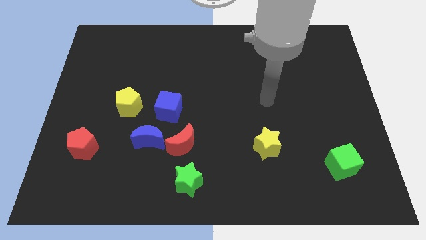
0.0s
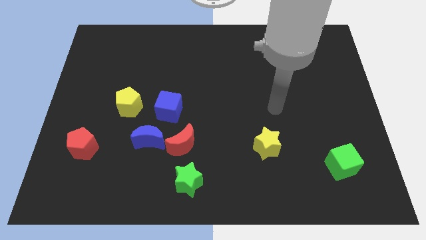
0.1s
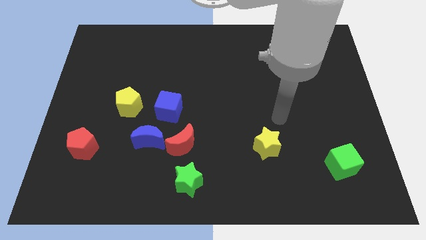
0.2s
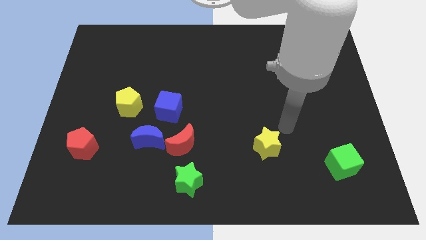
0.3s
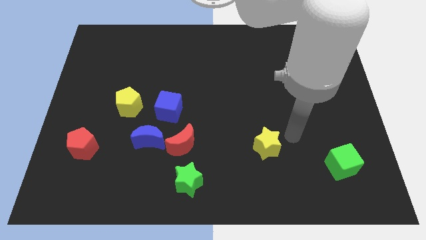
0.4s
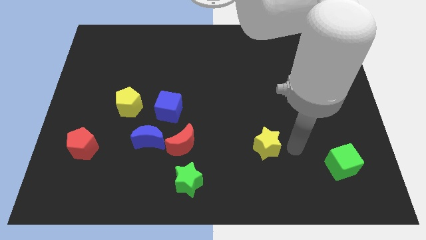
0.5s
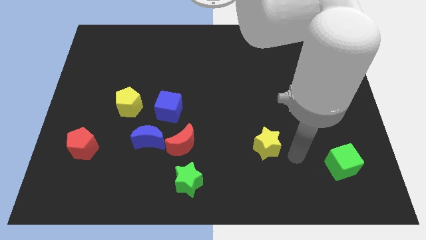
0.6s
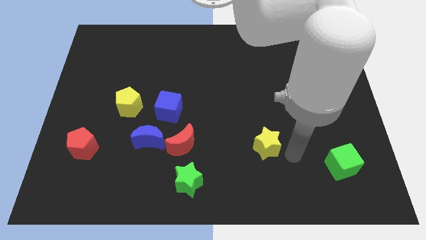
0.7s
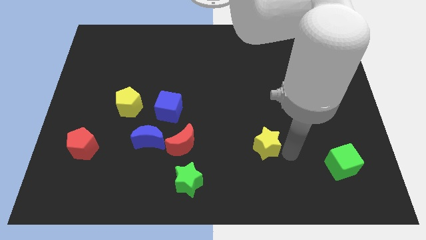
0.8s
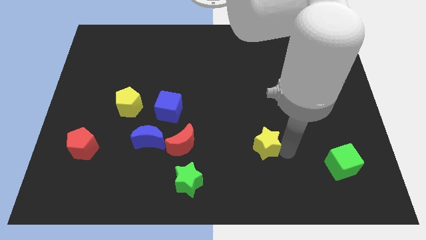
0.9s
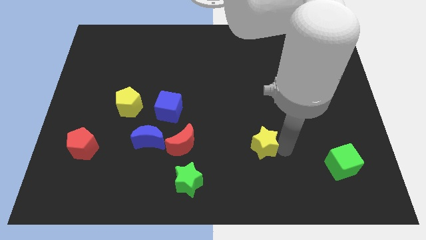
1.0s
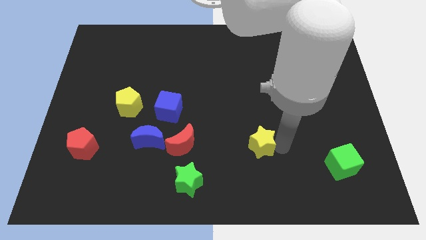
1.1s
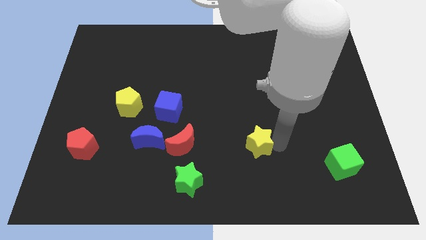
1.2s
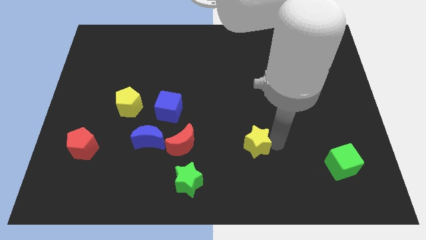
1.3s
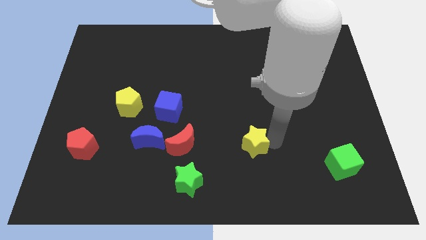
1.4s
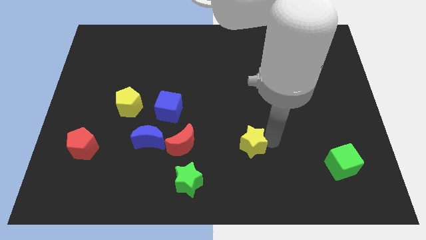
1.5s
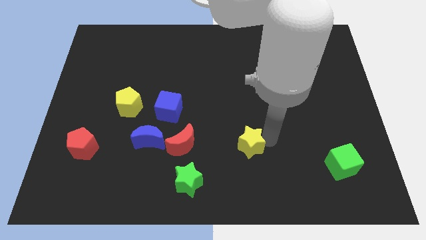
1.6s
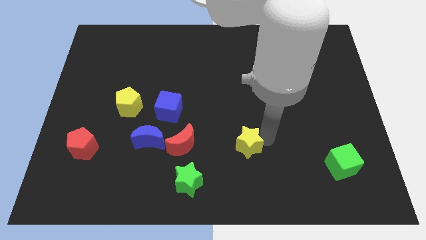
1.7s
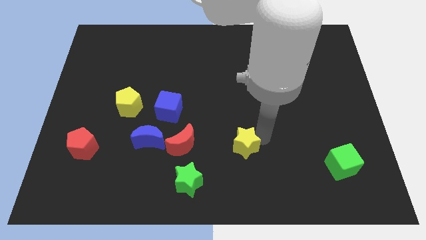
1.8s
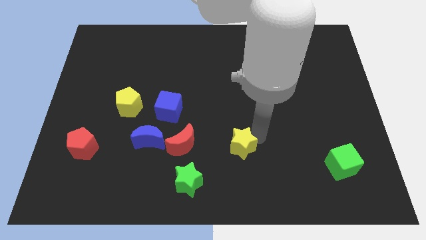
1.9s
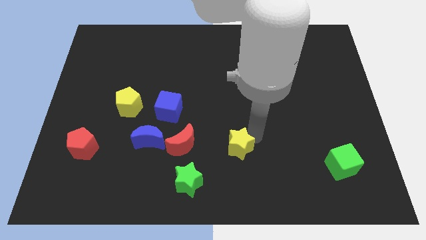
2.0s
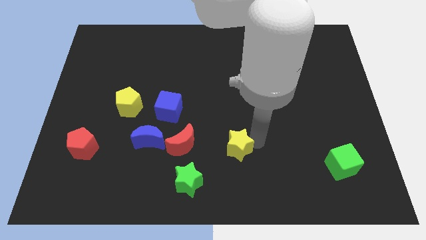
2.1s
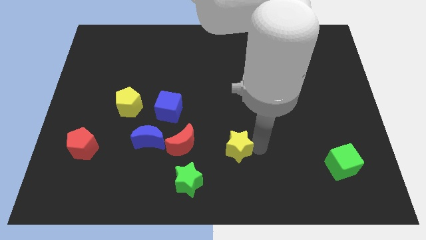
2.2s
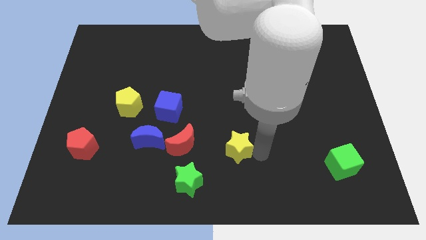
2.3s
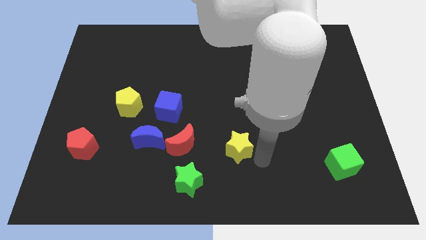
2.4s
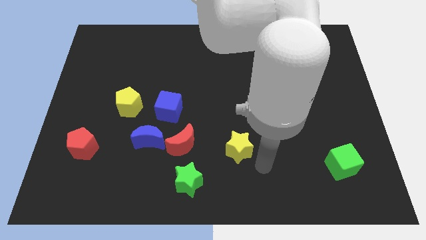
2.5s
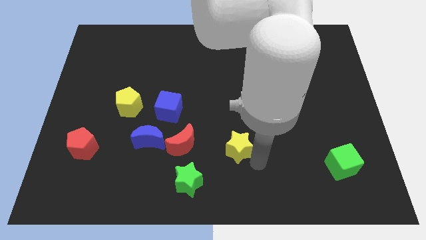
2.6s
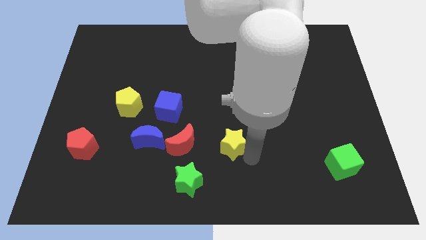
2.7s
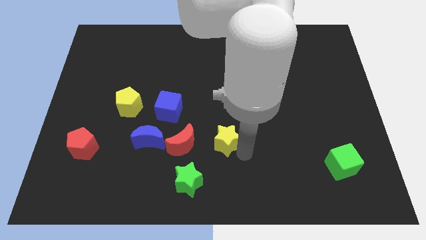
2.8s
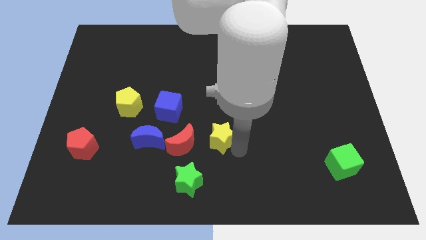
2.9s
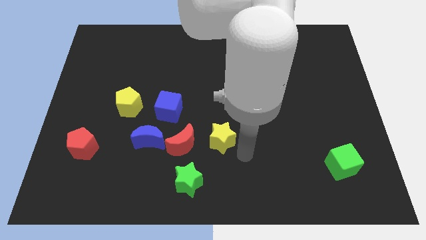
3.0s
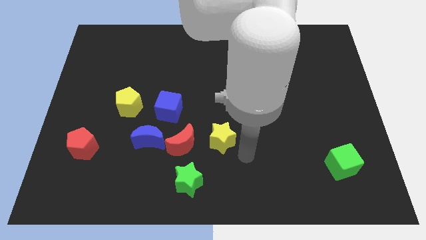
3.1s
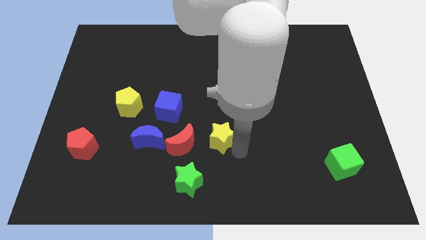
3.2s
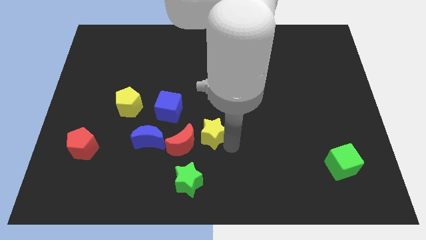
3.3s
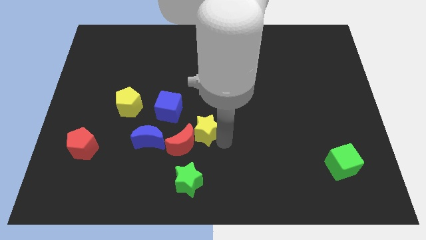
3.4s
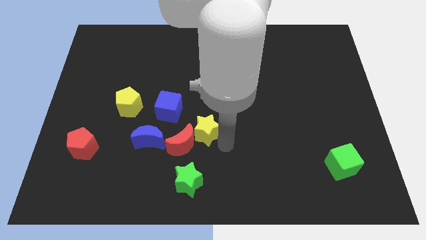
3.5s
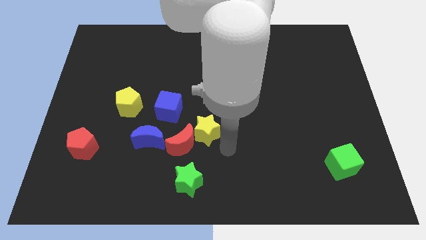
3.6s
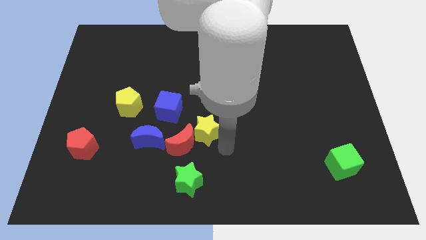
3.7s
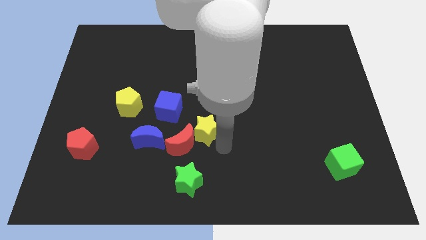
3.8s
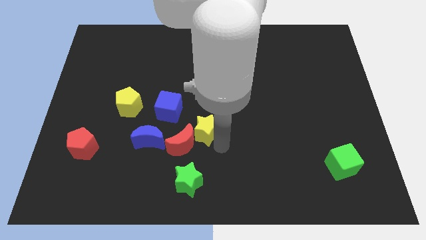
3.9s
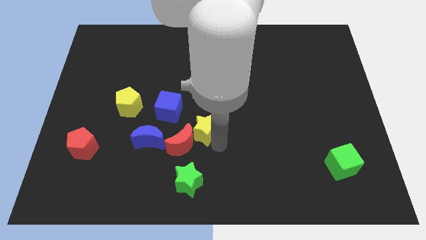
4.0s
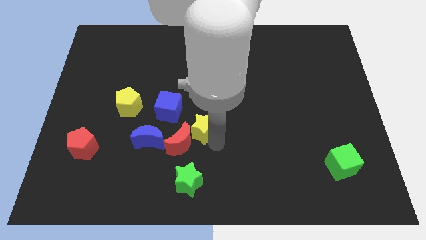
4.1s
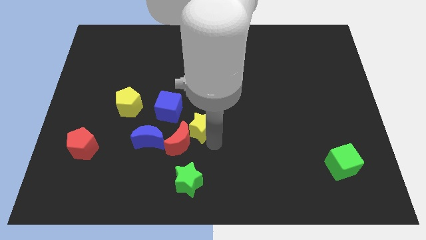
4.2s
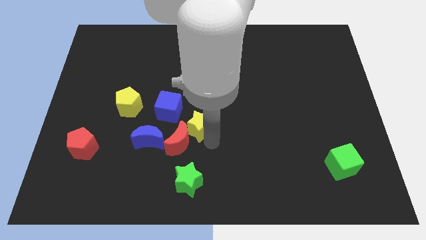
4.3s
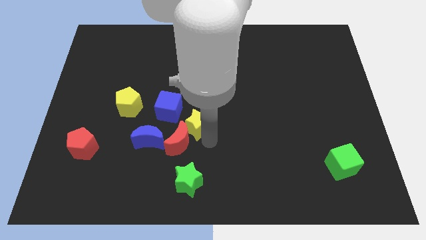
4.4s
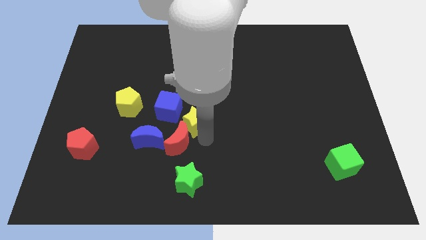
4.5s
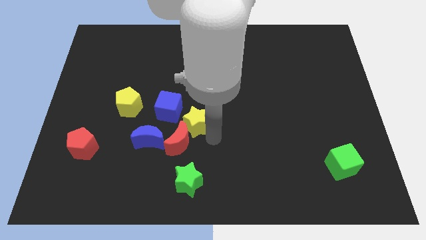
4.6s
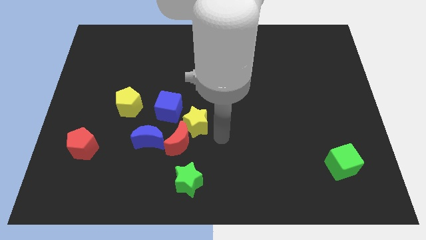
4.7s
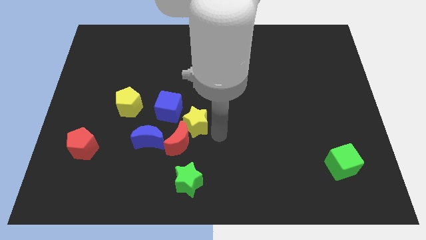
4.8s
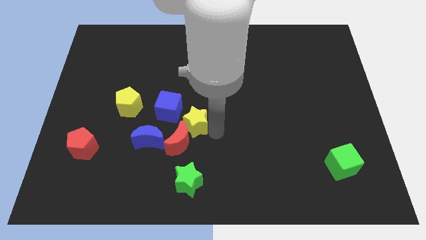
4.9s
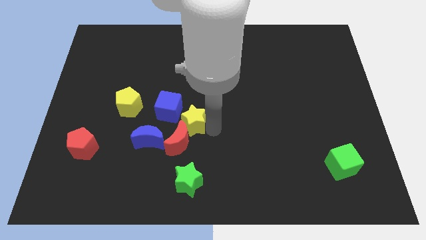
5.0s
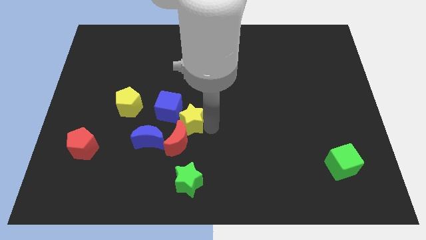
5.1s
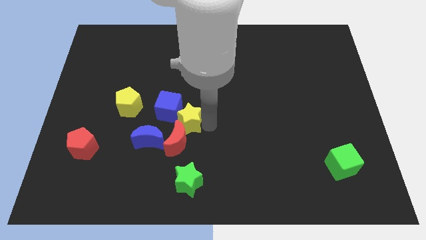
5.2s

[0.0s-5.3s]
push the yellow star to the blue cube

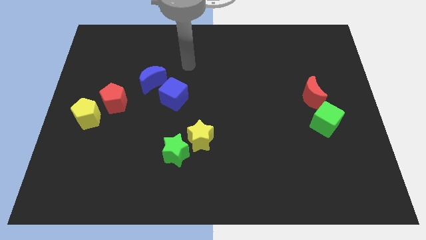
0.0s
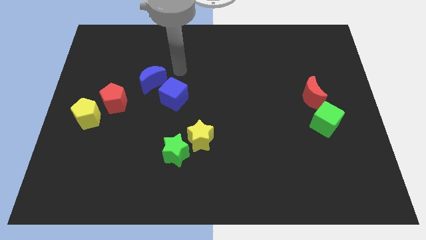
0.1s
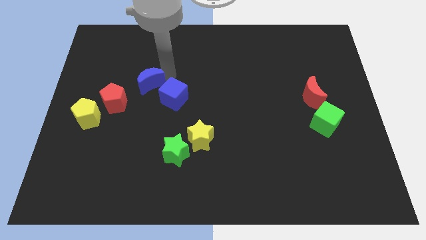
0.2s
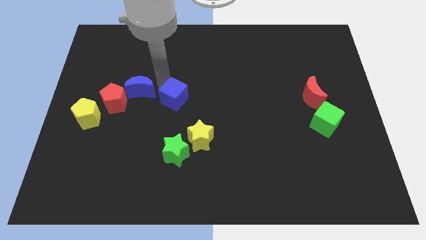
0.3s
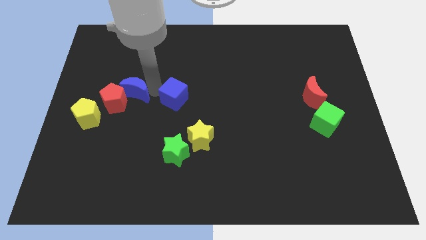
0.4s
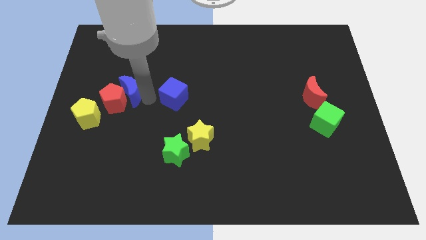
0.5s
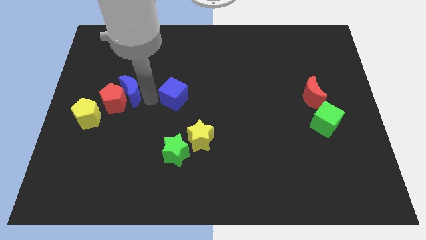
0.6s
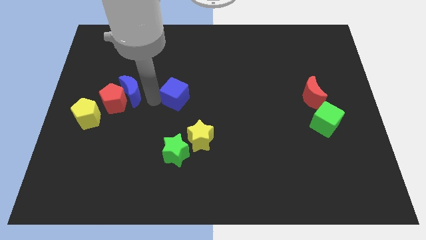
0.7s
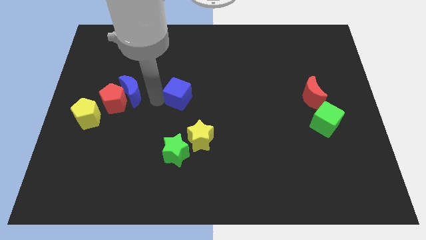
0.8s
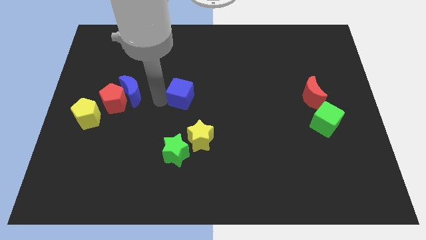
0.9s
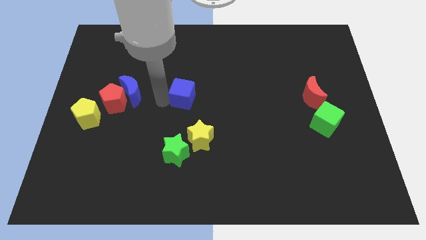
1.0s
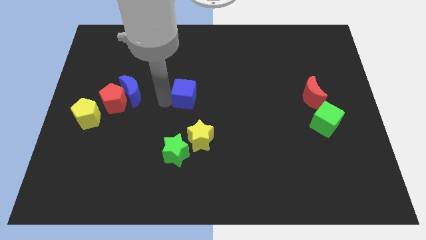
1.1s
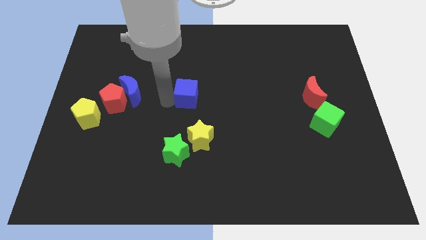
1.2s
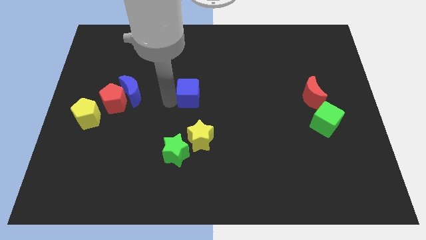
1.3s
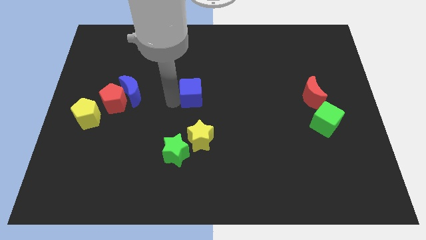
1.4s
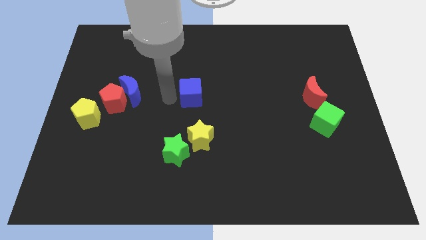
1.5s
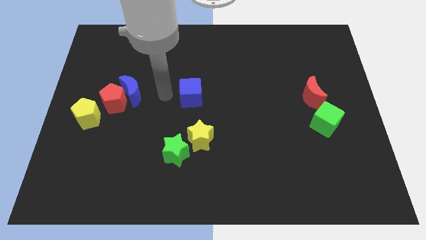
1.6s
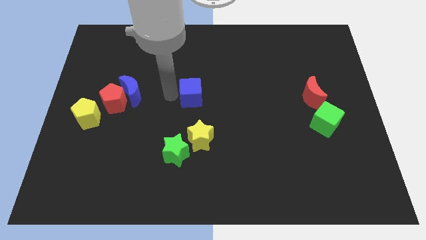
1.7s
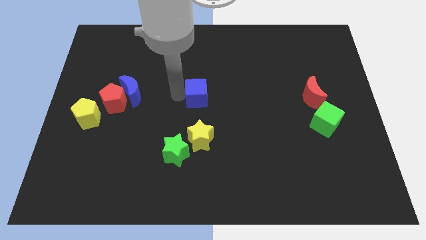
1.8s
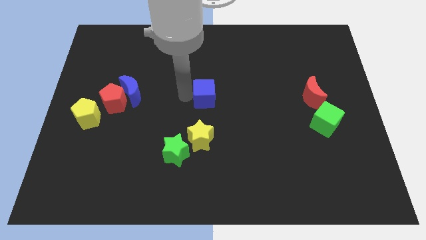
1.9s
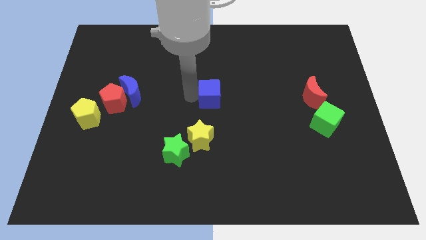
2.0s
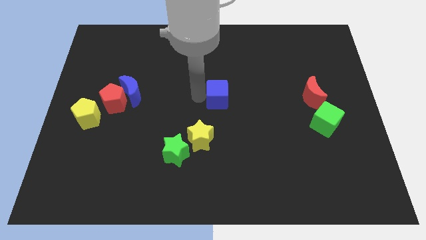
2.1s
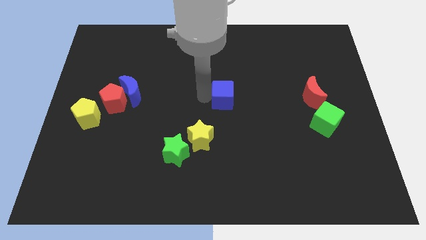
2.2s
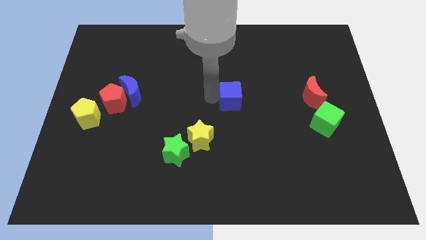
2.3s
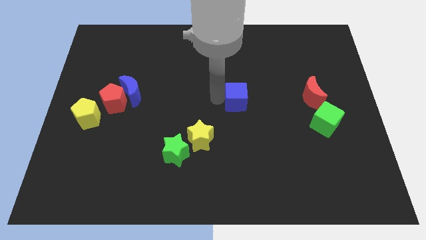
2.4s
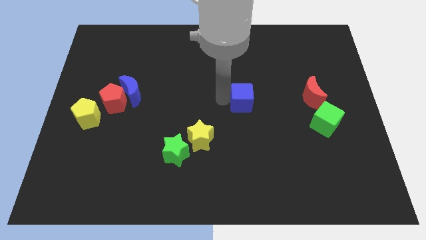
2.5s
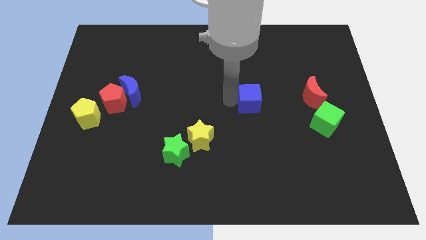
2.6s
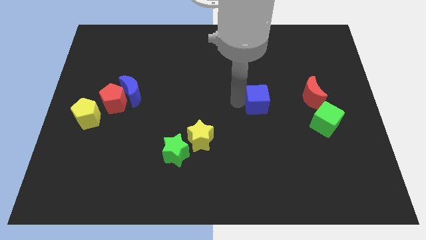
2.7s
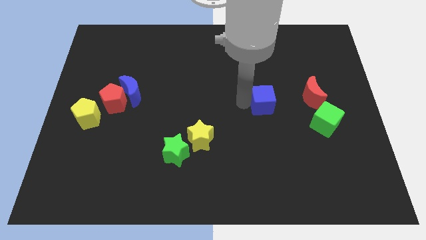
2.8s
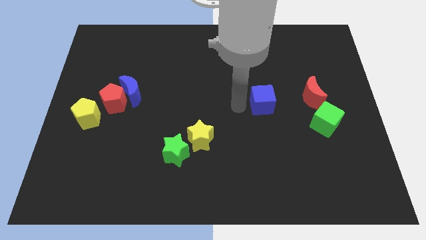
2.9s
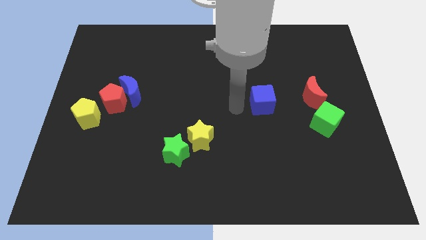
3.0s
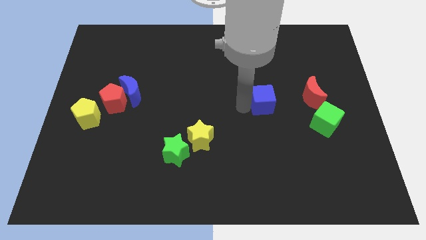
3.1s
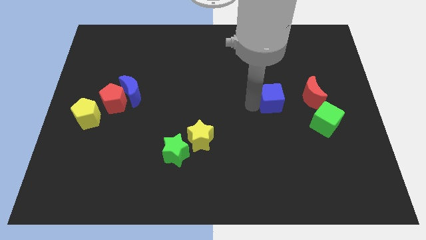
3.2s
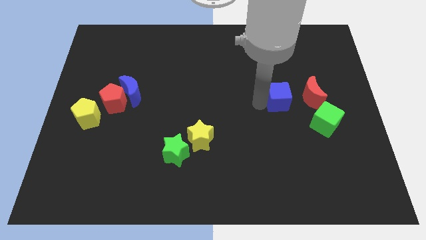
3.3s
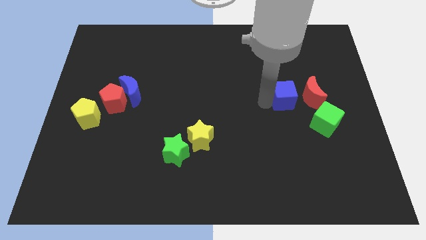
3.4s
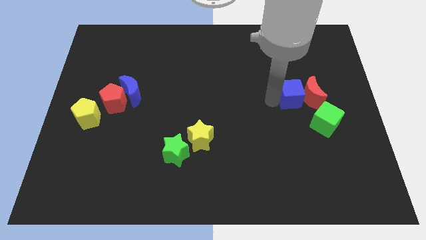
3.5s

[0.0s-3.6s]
put the blue cube towards the red moon
